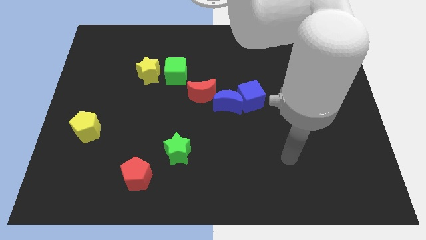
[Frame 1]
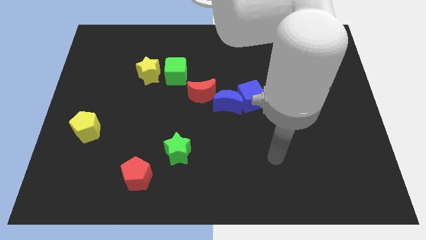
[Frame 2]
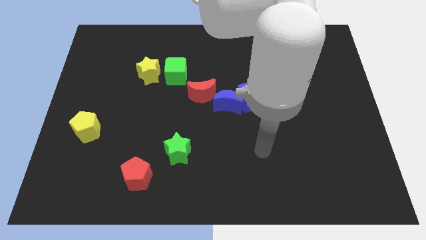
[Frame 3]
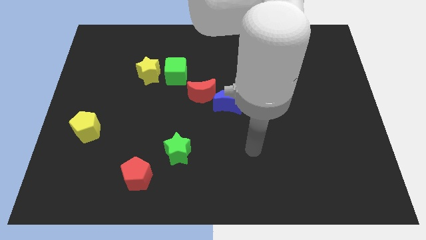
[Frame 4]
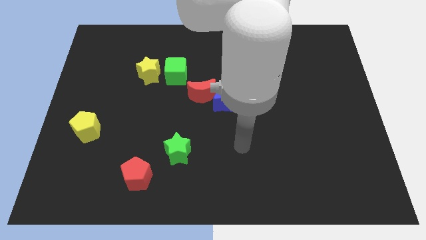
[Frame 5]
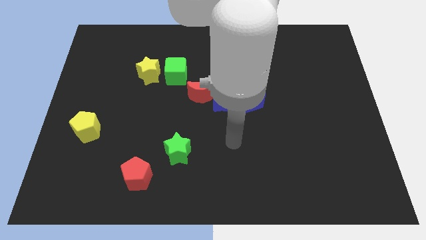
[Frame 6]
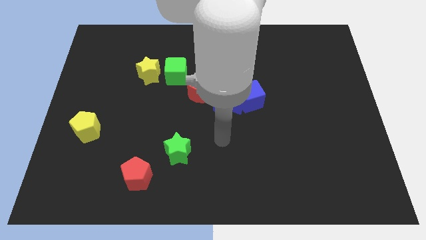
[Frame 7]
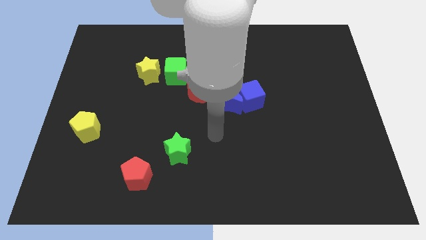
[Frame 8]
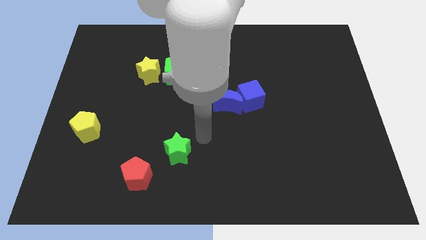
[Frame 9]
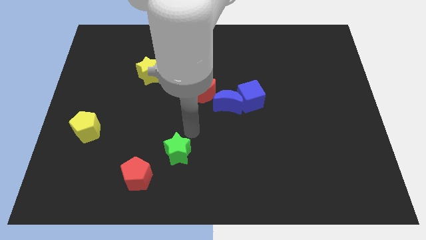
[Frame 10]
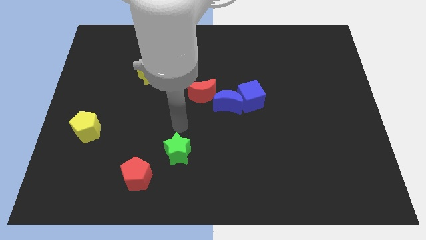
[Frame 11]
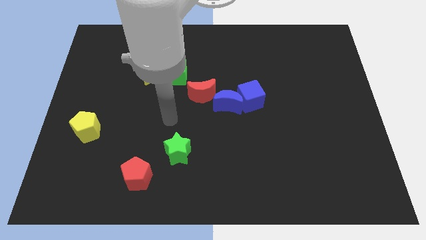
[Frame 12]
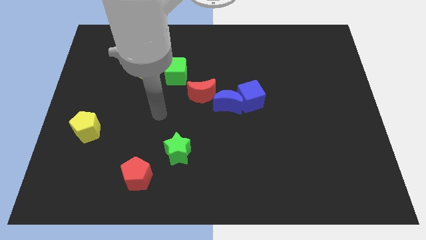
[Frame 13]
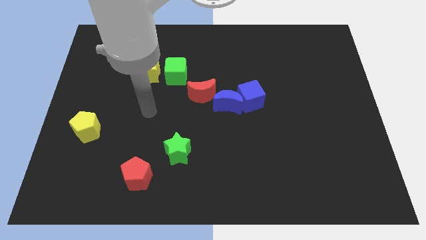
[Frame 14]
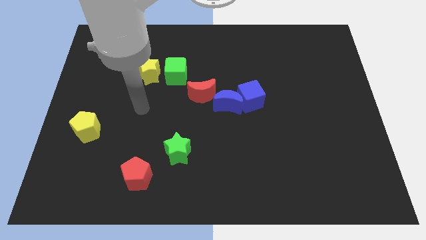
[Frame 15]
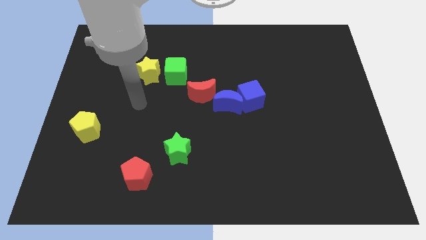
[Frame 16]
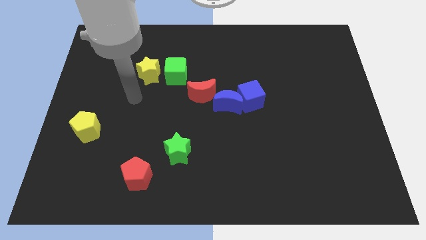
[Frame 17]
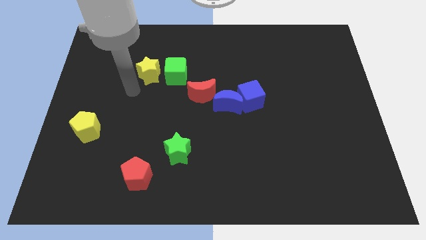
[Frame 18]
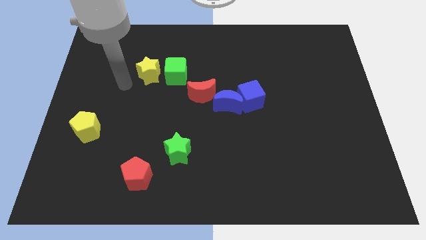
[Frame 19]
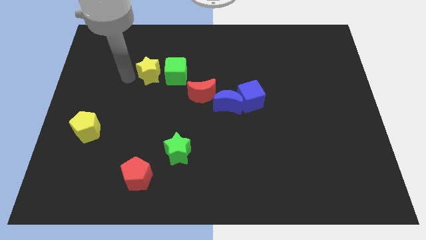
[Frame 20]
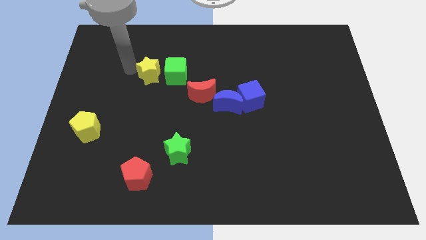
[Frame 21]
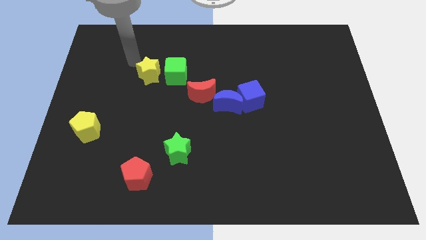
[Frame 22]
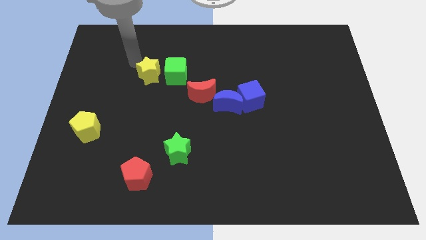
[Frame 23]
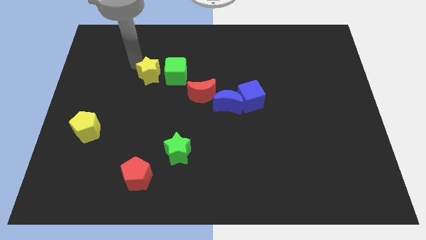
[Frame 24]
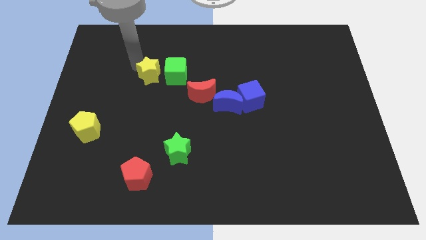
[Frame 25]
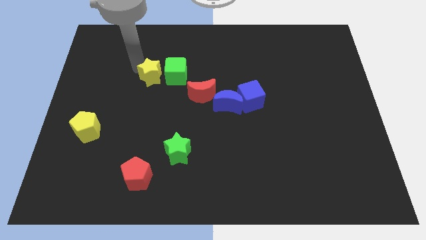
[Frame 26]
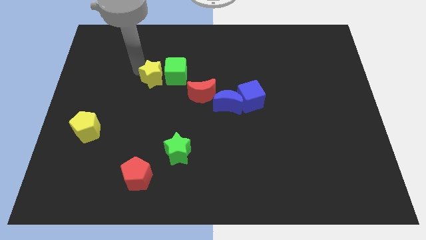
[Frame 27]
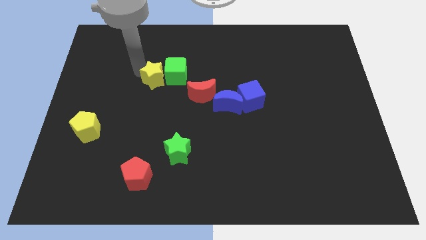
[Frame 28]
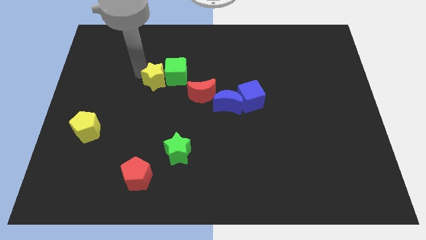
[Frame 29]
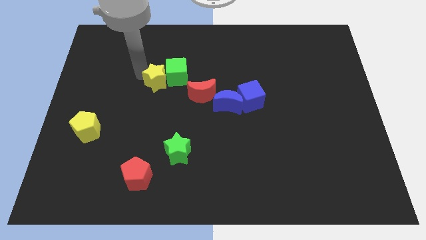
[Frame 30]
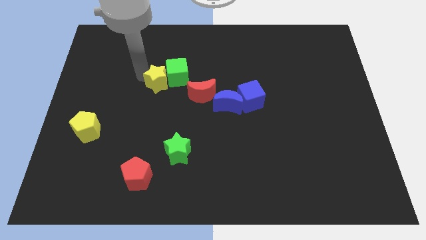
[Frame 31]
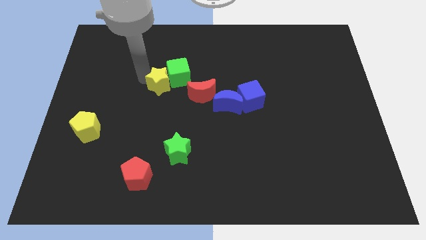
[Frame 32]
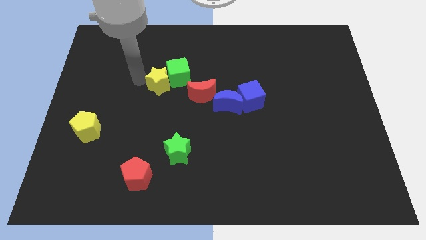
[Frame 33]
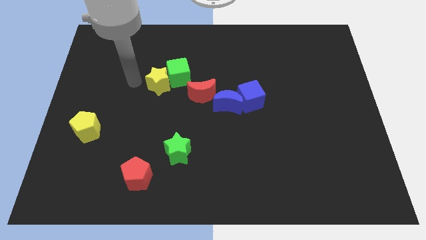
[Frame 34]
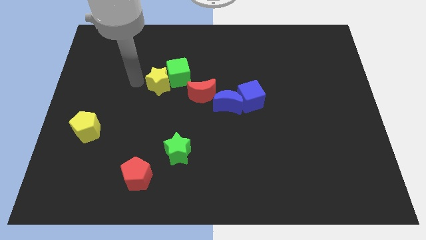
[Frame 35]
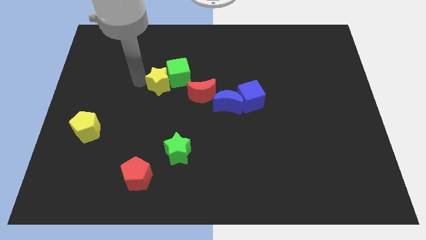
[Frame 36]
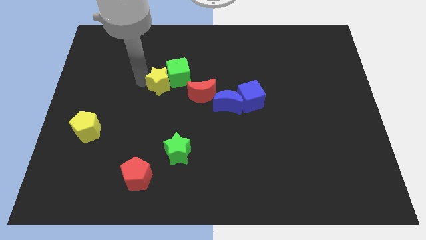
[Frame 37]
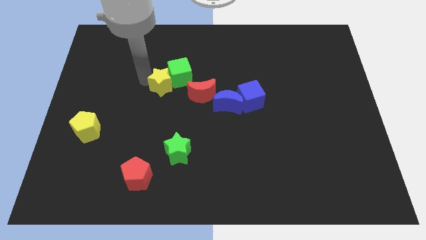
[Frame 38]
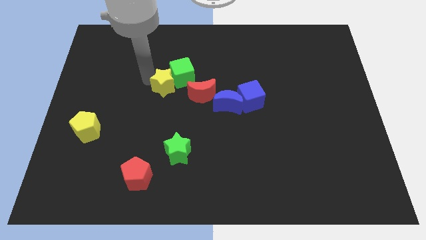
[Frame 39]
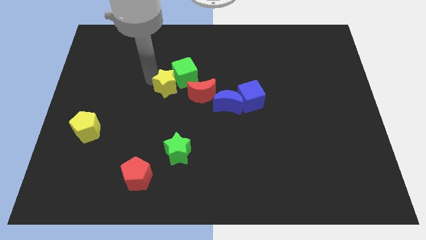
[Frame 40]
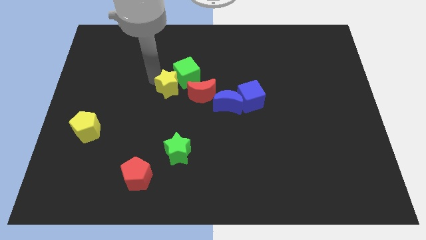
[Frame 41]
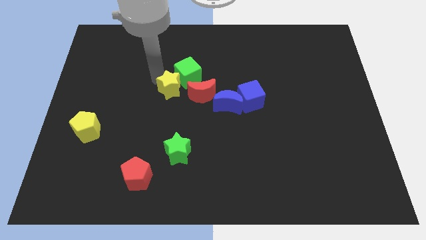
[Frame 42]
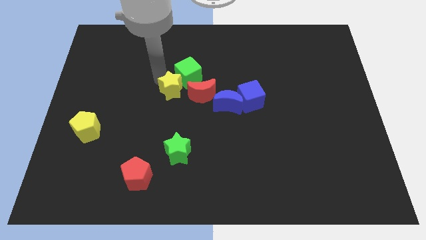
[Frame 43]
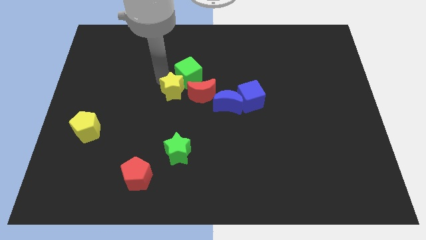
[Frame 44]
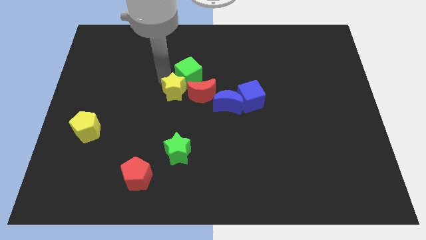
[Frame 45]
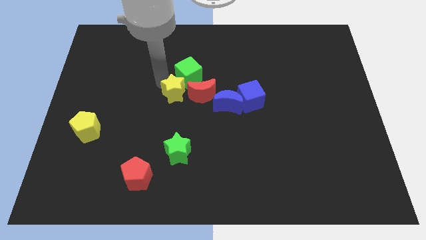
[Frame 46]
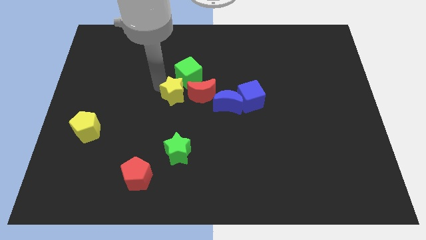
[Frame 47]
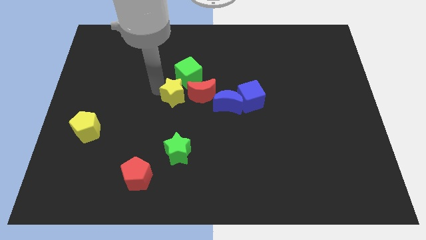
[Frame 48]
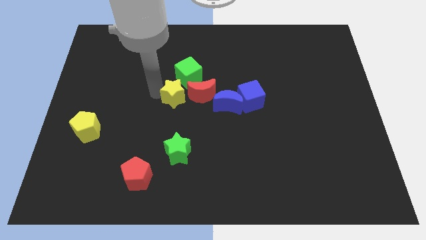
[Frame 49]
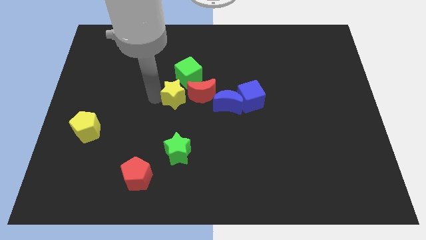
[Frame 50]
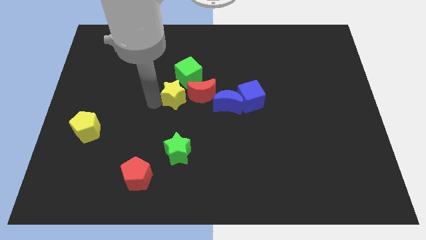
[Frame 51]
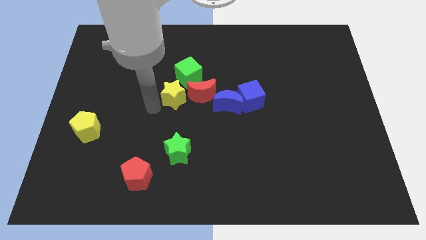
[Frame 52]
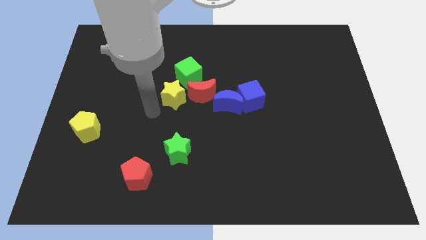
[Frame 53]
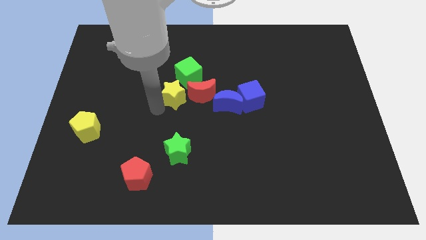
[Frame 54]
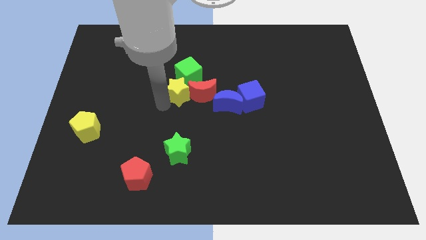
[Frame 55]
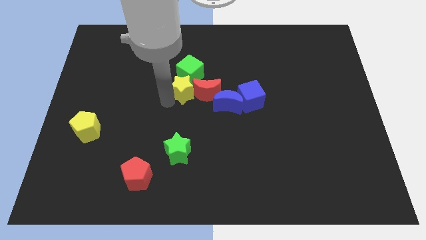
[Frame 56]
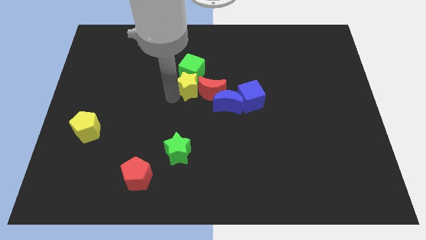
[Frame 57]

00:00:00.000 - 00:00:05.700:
put the yellow star diagonally up and to the left of the blue moon
